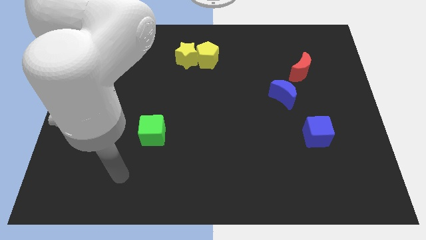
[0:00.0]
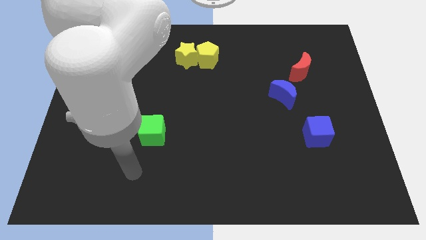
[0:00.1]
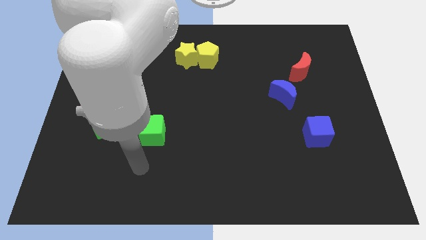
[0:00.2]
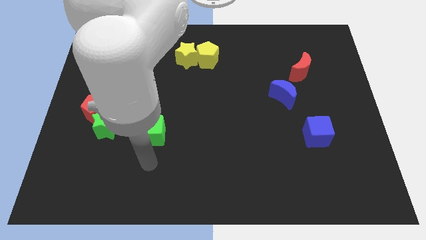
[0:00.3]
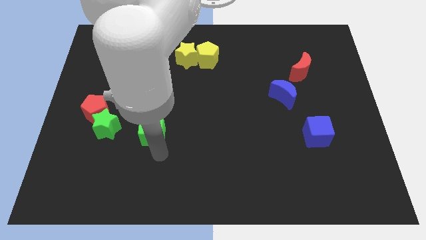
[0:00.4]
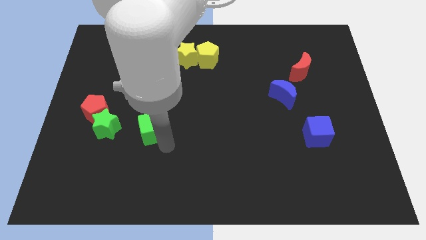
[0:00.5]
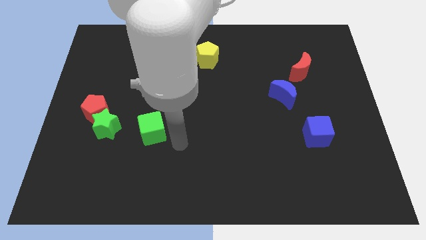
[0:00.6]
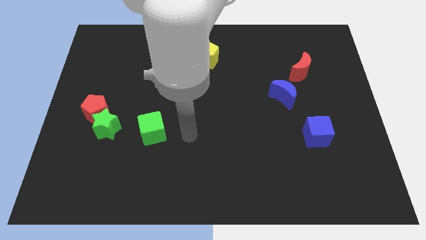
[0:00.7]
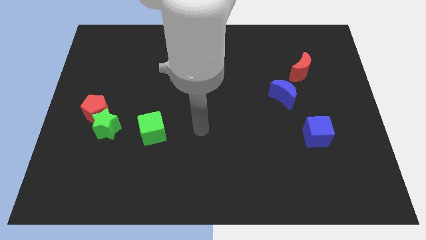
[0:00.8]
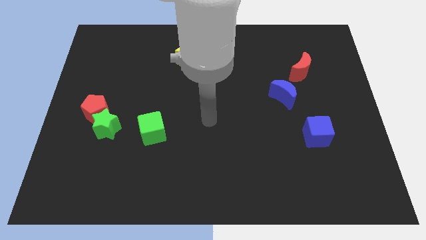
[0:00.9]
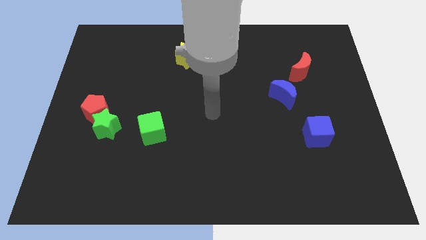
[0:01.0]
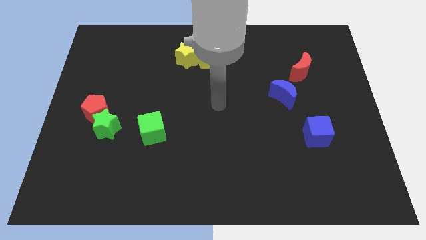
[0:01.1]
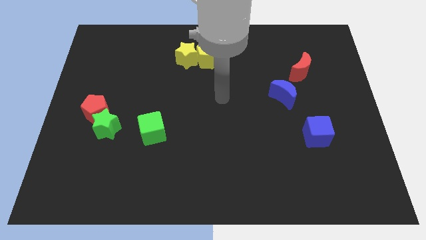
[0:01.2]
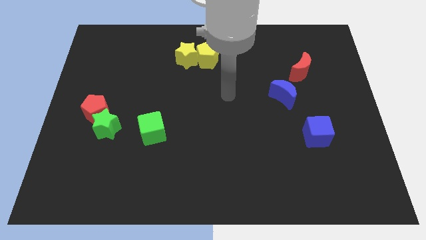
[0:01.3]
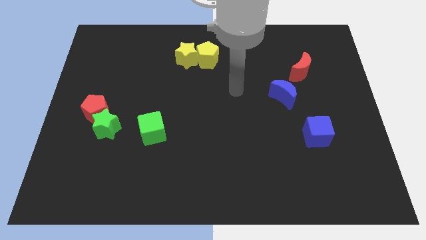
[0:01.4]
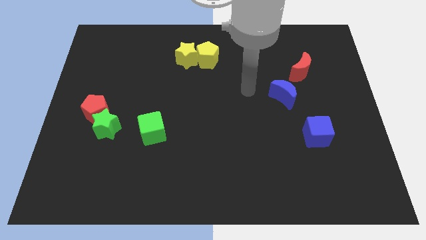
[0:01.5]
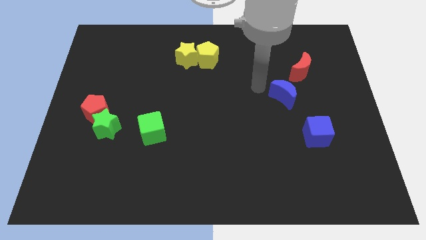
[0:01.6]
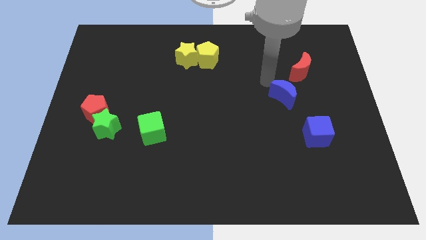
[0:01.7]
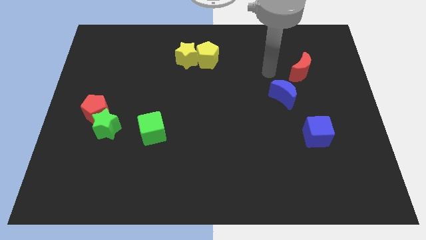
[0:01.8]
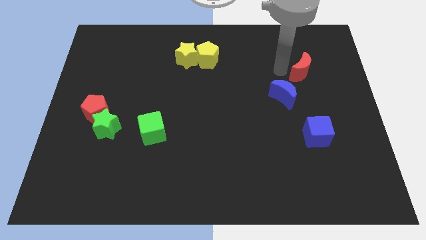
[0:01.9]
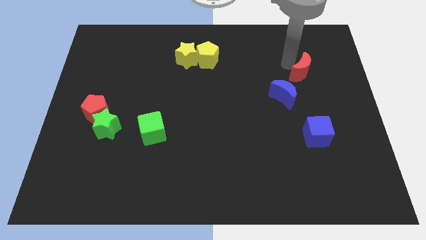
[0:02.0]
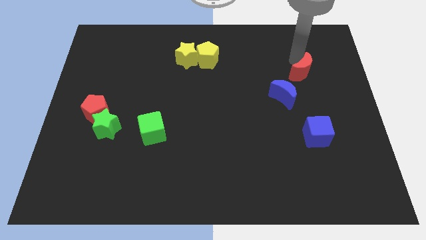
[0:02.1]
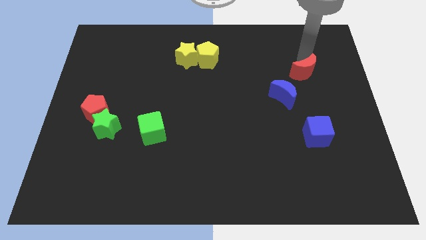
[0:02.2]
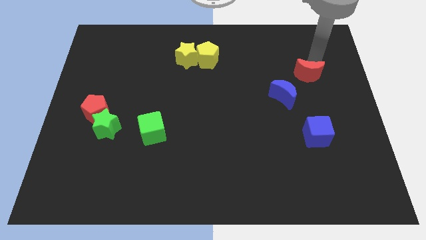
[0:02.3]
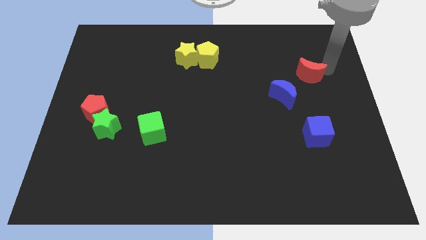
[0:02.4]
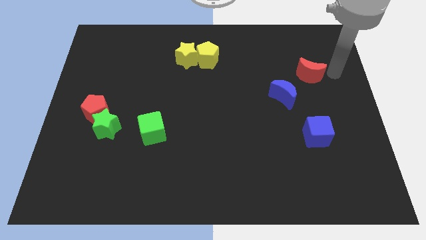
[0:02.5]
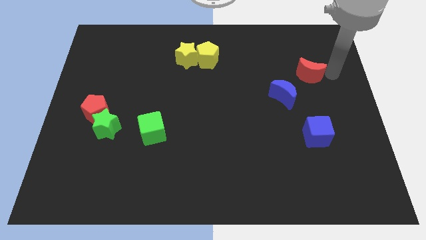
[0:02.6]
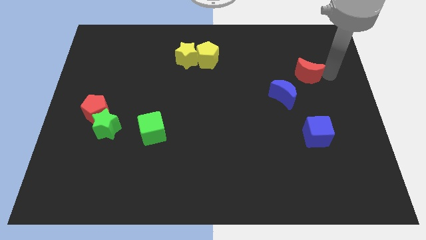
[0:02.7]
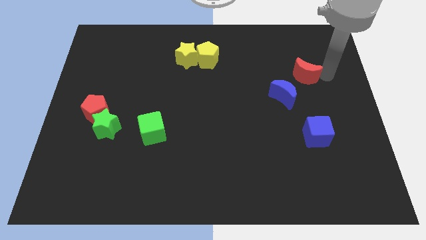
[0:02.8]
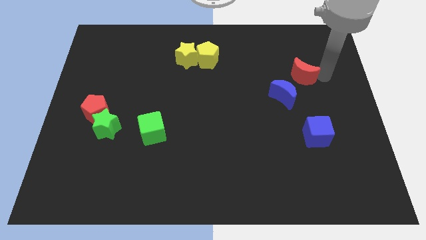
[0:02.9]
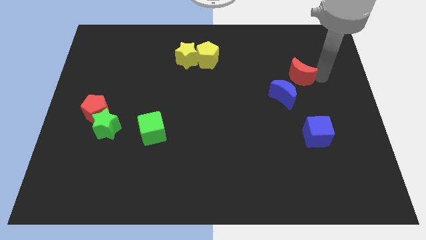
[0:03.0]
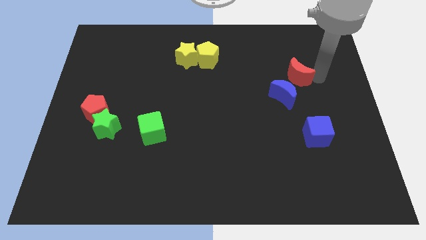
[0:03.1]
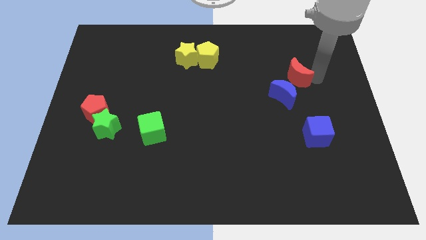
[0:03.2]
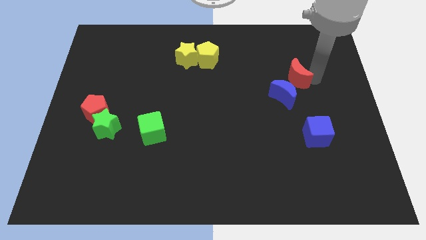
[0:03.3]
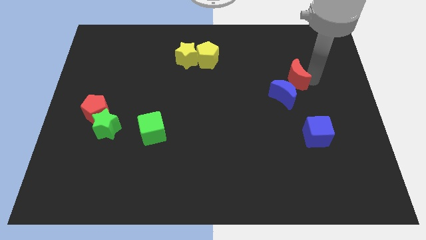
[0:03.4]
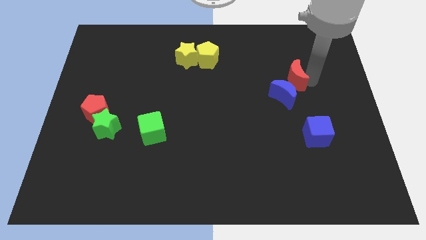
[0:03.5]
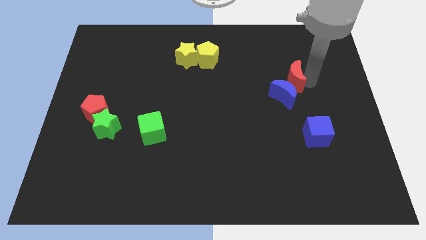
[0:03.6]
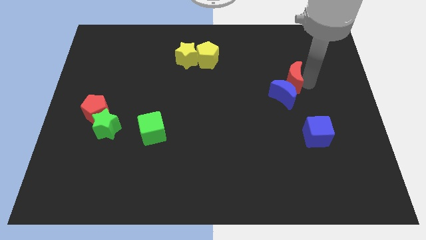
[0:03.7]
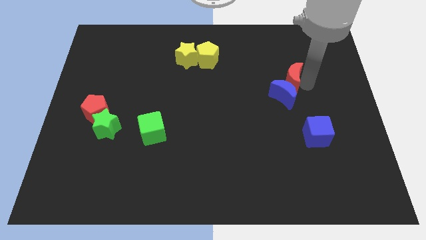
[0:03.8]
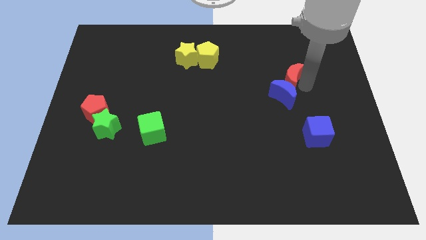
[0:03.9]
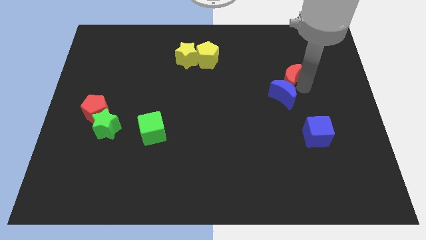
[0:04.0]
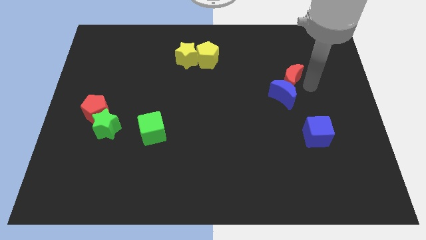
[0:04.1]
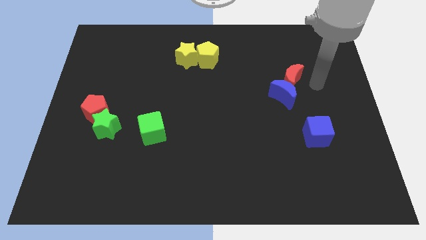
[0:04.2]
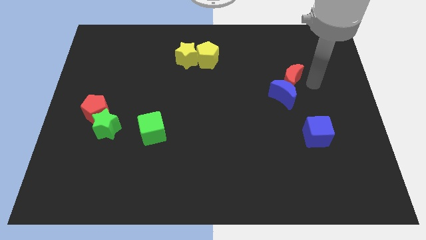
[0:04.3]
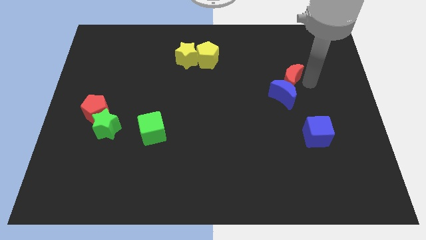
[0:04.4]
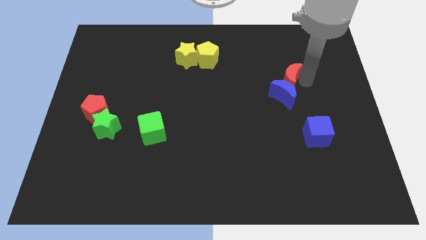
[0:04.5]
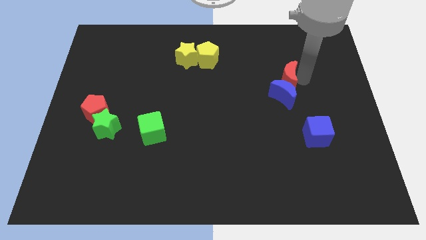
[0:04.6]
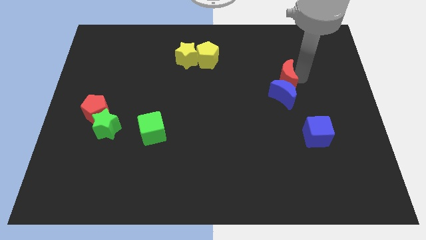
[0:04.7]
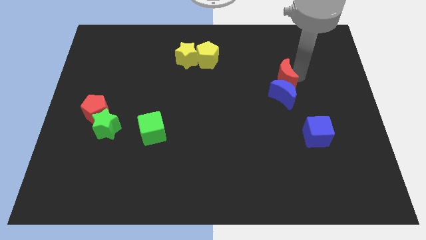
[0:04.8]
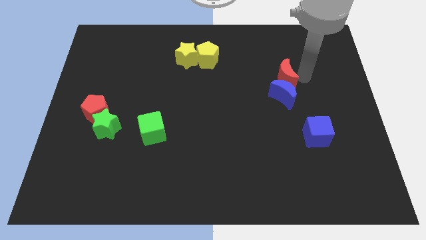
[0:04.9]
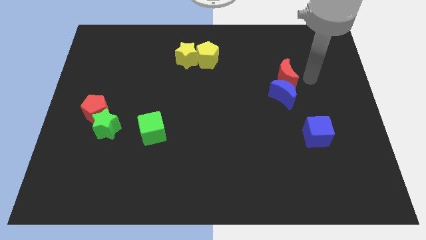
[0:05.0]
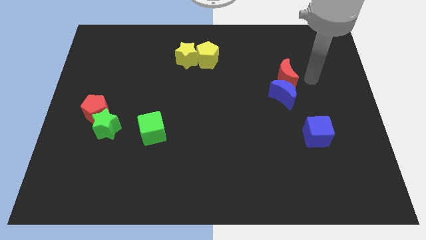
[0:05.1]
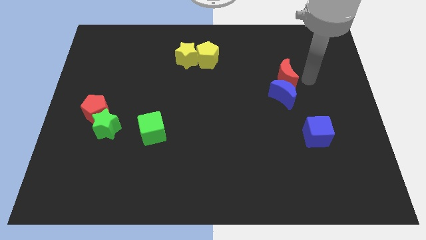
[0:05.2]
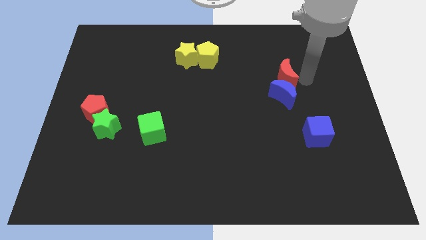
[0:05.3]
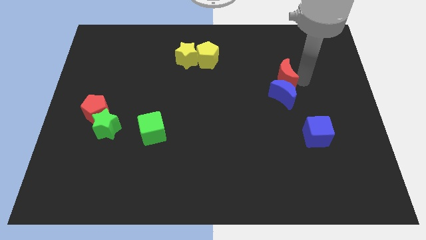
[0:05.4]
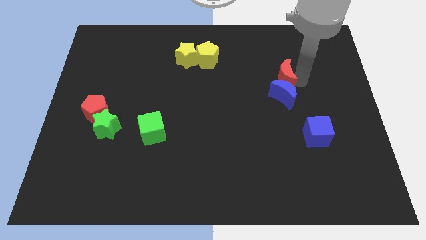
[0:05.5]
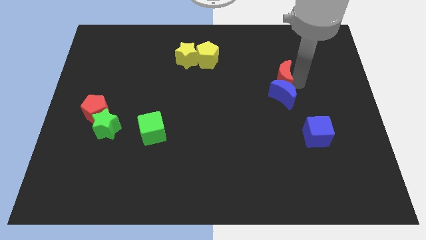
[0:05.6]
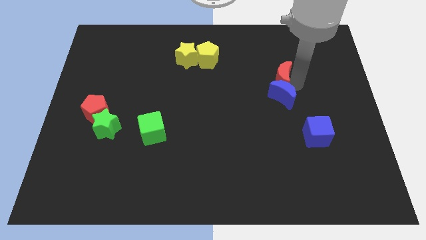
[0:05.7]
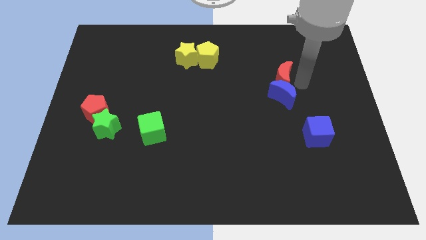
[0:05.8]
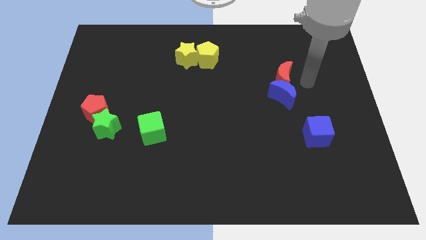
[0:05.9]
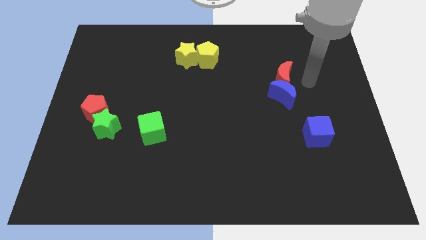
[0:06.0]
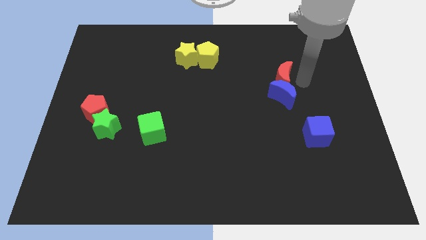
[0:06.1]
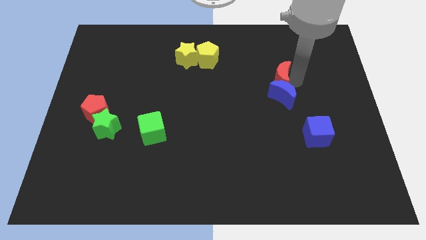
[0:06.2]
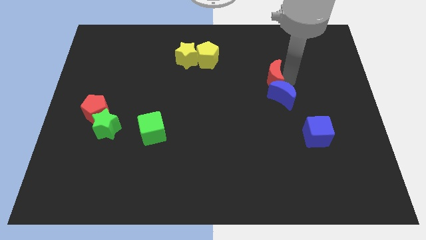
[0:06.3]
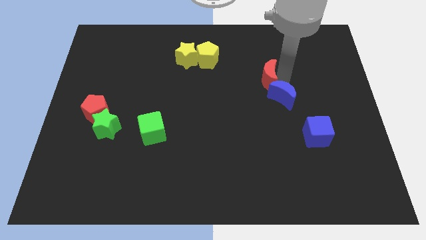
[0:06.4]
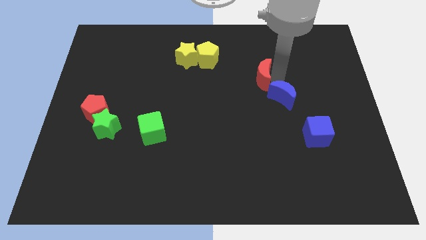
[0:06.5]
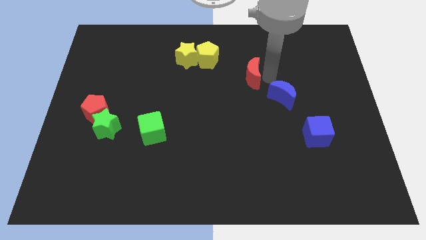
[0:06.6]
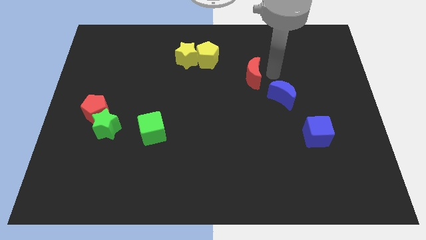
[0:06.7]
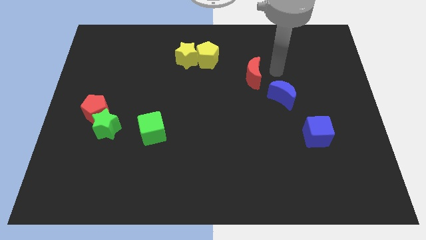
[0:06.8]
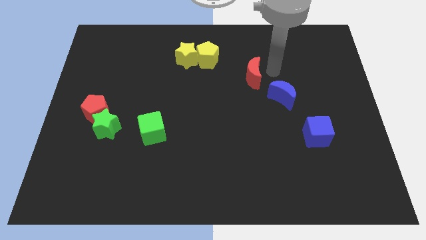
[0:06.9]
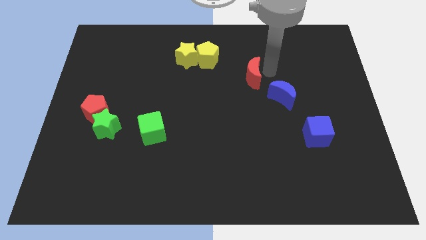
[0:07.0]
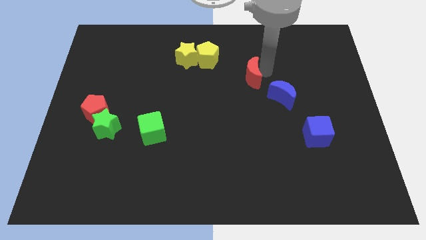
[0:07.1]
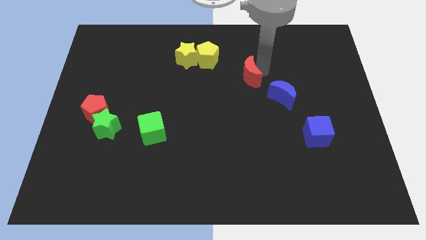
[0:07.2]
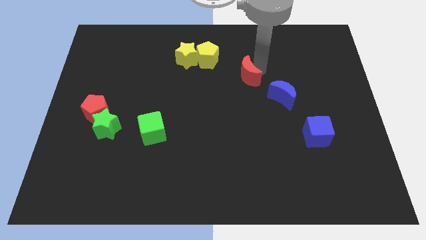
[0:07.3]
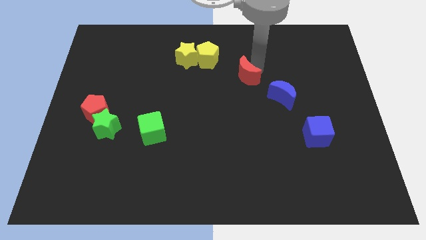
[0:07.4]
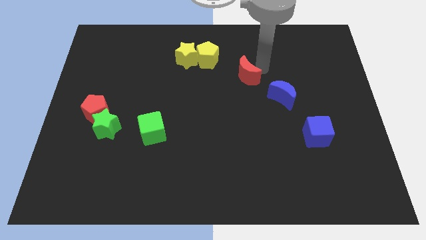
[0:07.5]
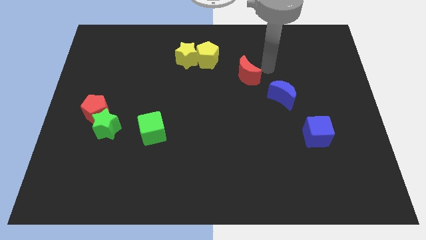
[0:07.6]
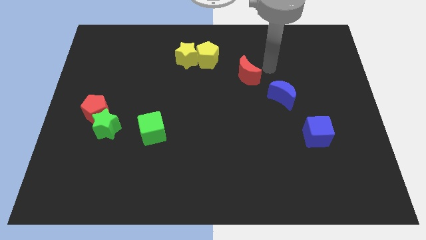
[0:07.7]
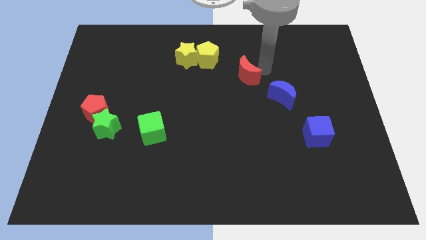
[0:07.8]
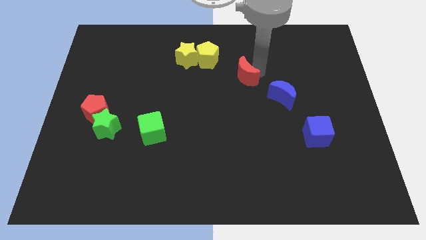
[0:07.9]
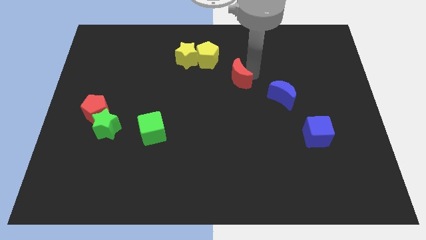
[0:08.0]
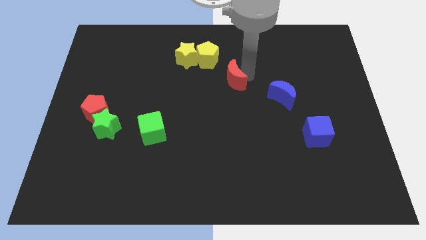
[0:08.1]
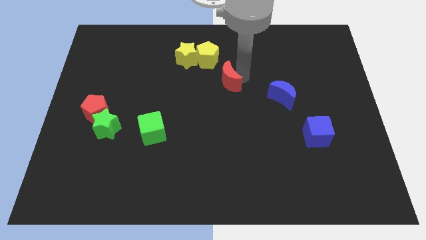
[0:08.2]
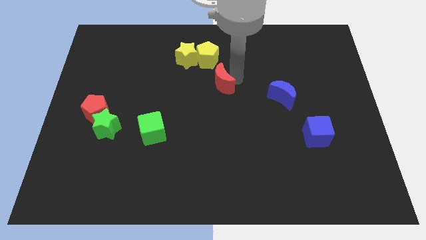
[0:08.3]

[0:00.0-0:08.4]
slide the red moon to the bottom of the yellow pentagon
